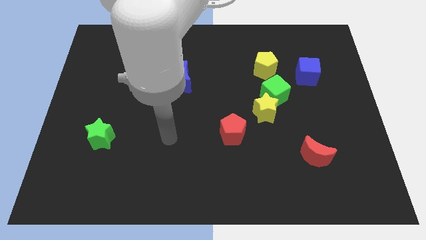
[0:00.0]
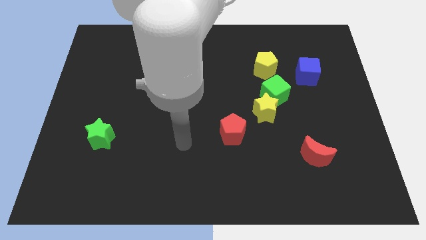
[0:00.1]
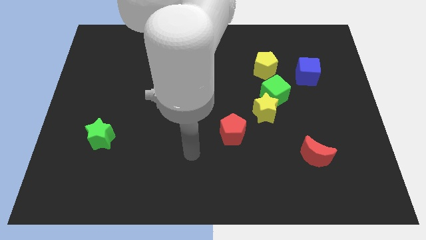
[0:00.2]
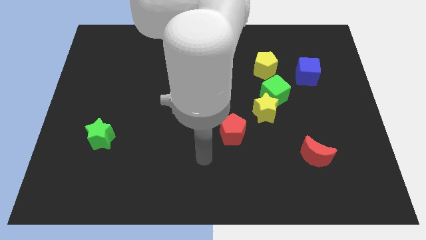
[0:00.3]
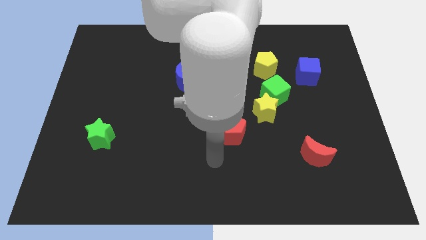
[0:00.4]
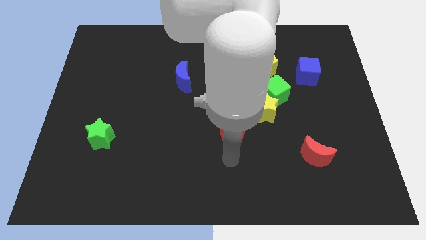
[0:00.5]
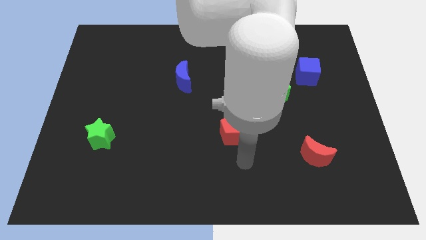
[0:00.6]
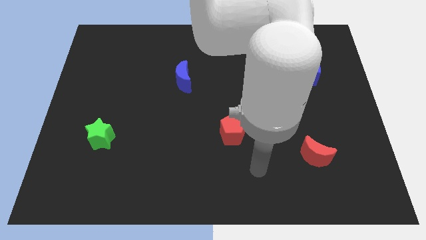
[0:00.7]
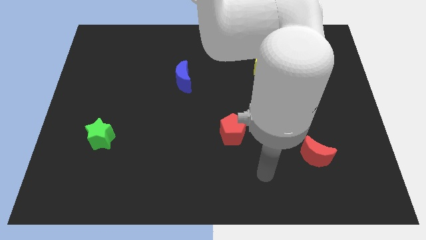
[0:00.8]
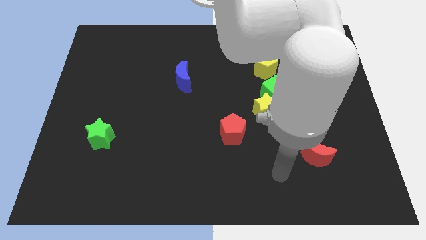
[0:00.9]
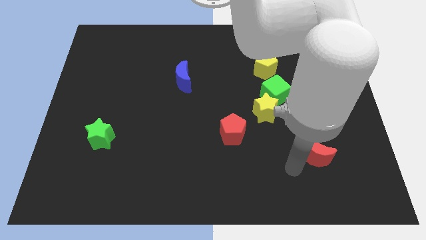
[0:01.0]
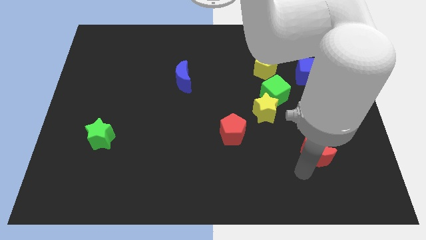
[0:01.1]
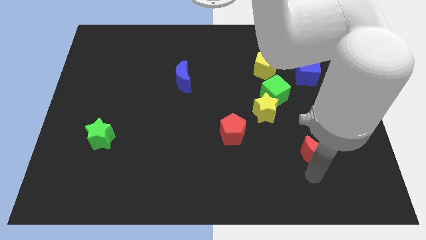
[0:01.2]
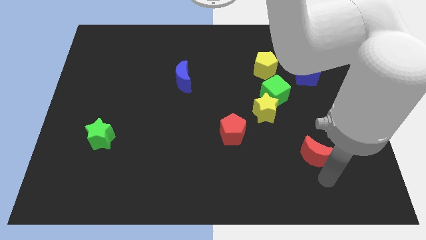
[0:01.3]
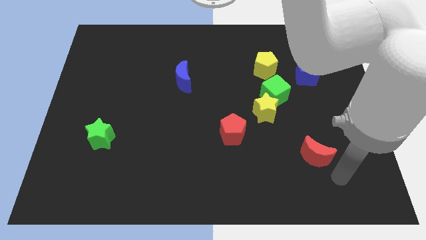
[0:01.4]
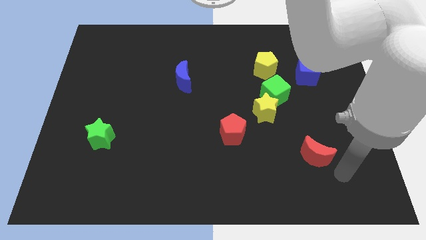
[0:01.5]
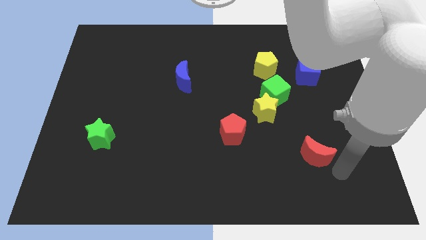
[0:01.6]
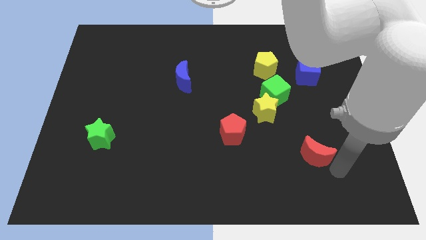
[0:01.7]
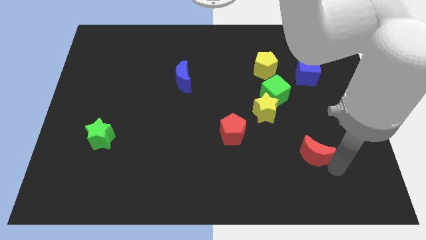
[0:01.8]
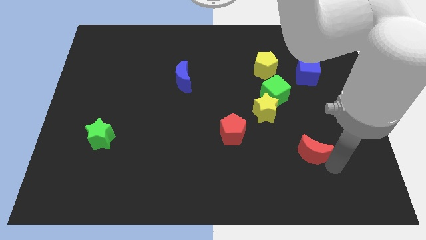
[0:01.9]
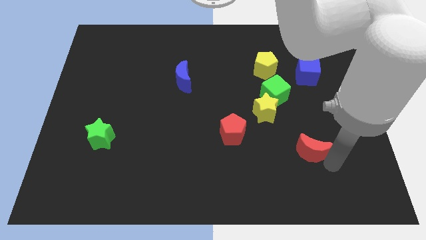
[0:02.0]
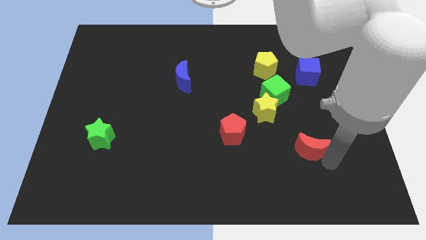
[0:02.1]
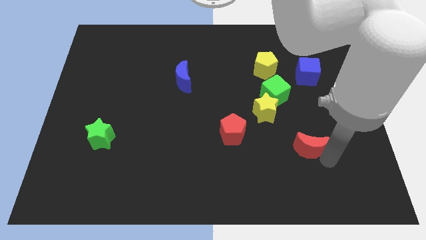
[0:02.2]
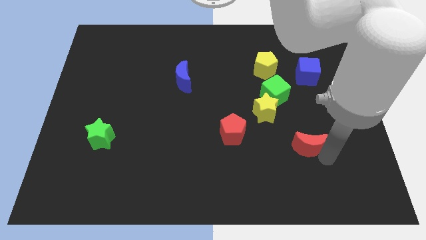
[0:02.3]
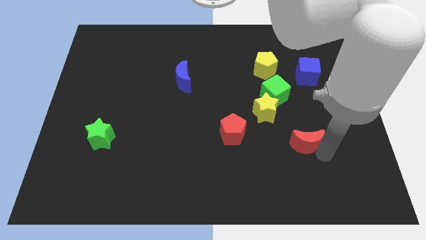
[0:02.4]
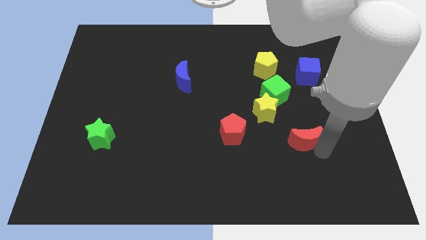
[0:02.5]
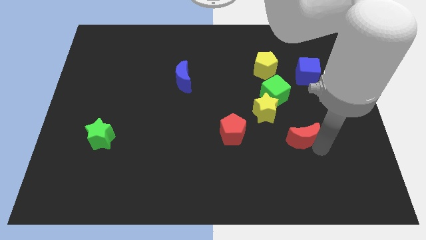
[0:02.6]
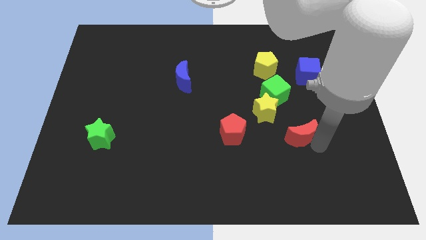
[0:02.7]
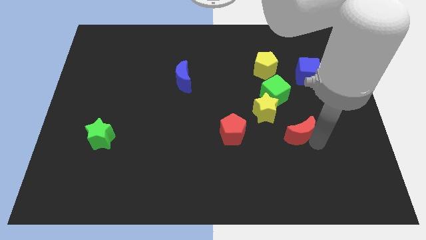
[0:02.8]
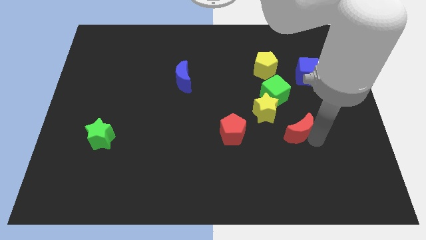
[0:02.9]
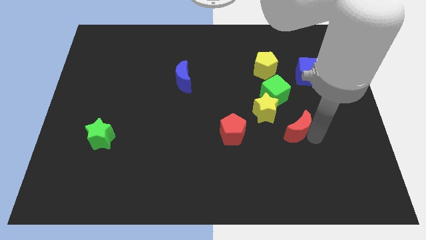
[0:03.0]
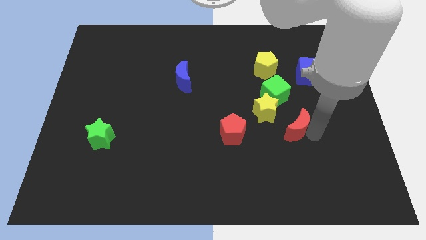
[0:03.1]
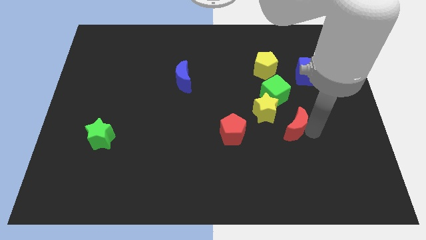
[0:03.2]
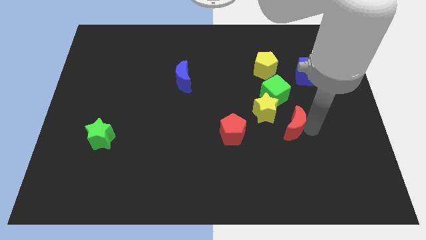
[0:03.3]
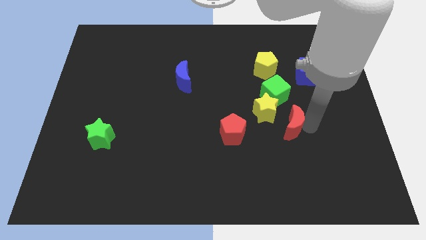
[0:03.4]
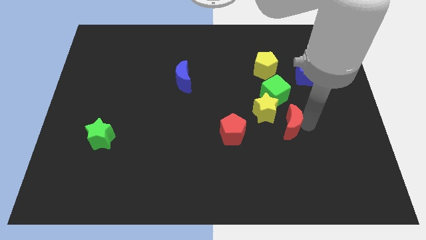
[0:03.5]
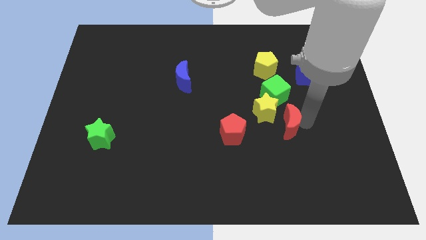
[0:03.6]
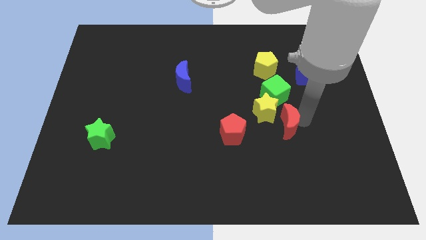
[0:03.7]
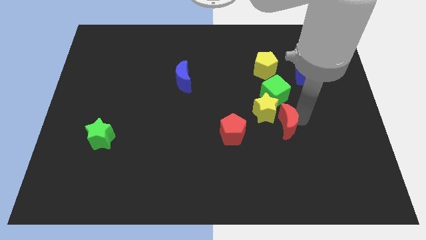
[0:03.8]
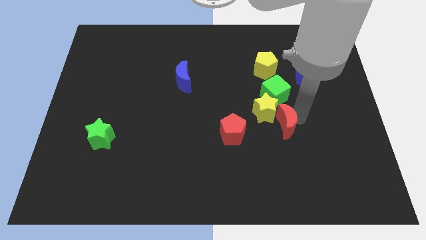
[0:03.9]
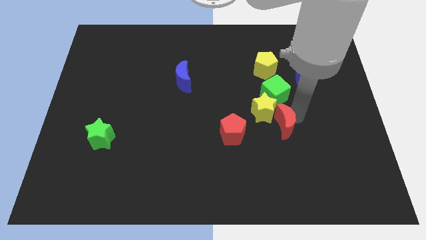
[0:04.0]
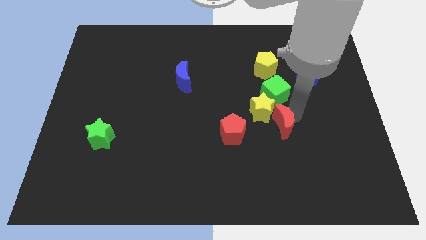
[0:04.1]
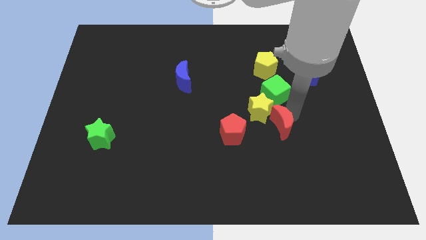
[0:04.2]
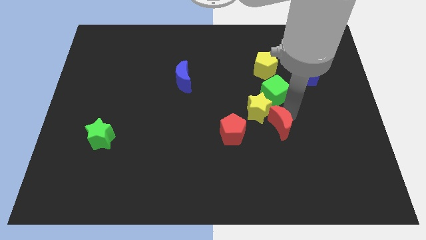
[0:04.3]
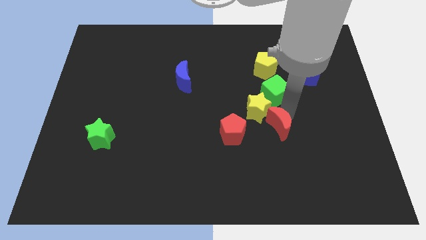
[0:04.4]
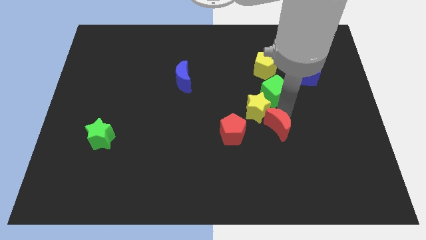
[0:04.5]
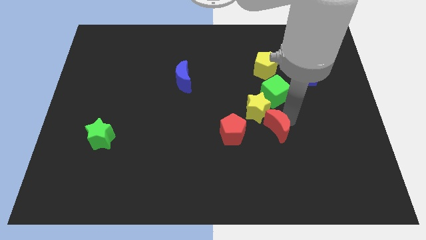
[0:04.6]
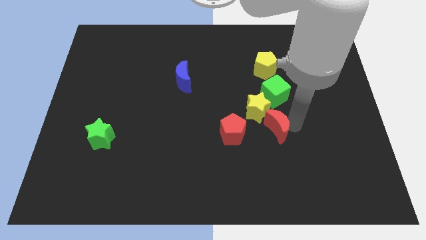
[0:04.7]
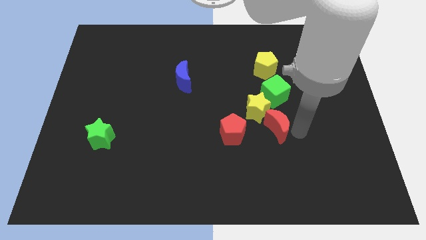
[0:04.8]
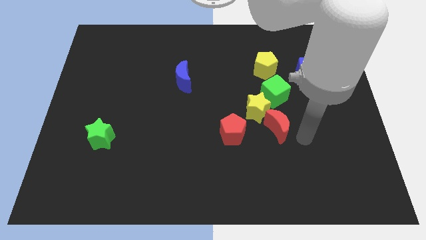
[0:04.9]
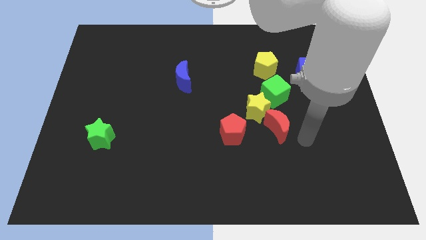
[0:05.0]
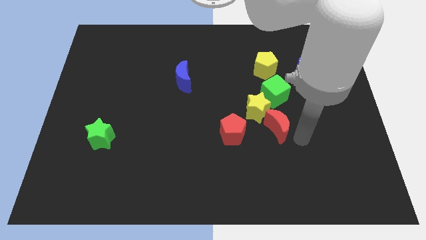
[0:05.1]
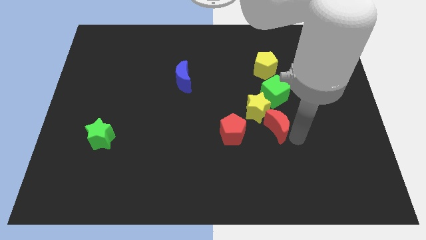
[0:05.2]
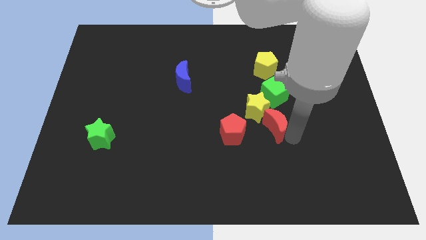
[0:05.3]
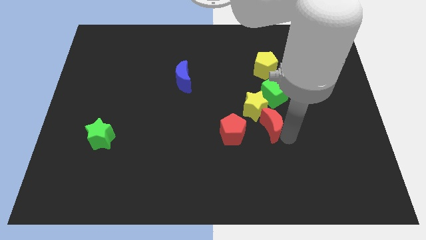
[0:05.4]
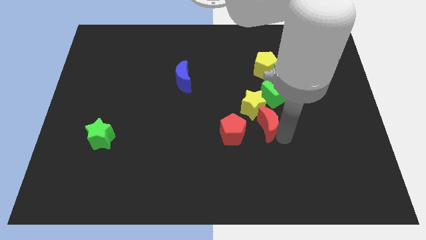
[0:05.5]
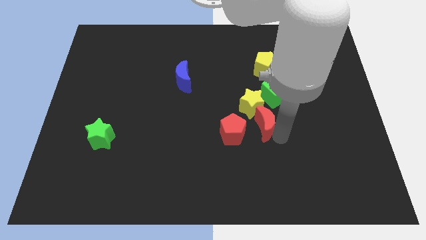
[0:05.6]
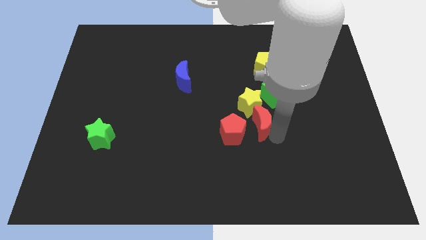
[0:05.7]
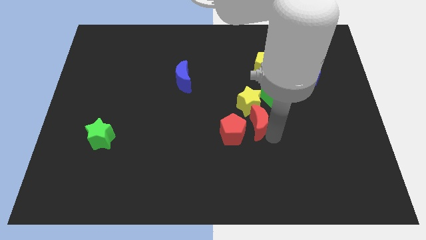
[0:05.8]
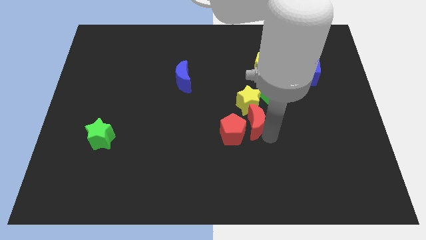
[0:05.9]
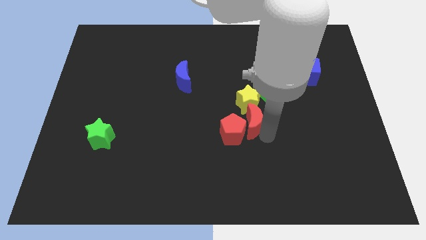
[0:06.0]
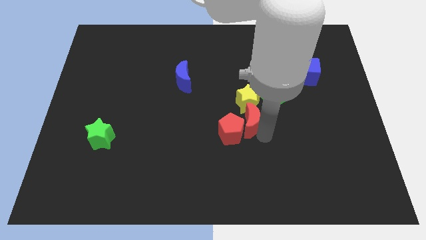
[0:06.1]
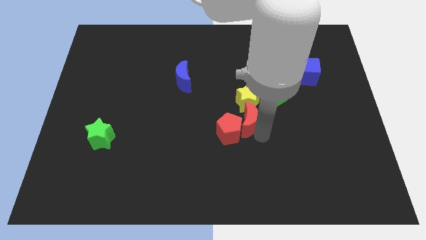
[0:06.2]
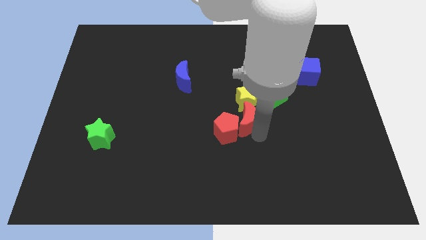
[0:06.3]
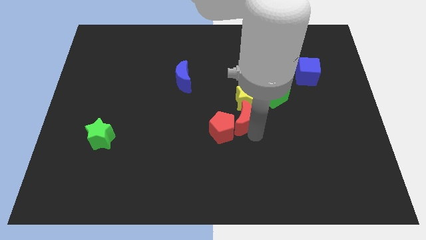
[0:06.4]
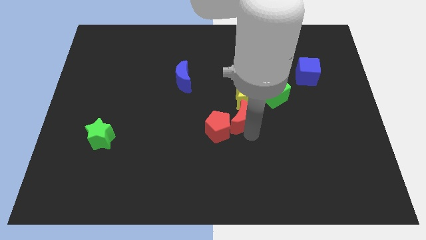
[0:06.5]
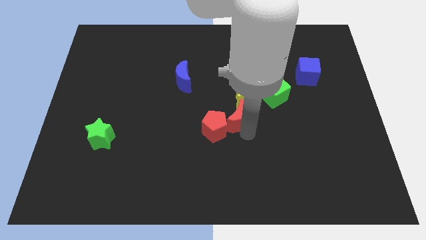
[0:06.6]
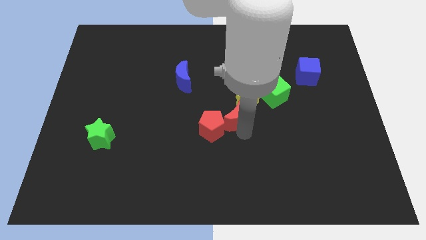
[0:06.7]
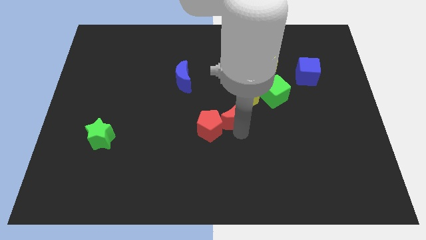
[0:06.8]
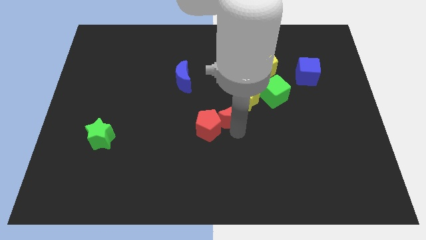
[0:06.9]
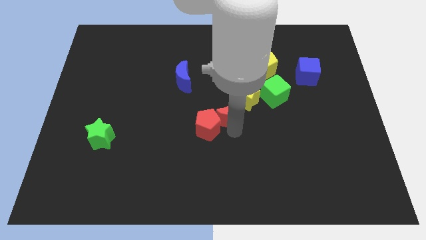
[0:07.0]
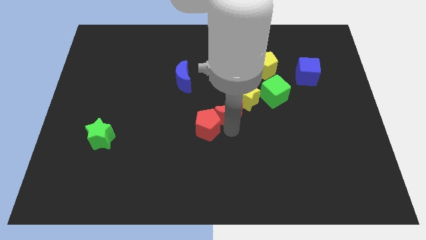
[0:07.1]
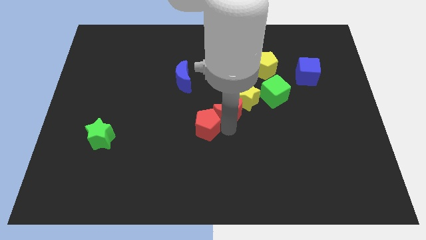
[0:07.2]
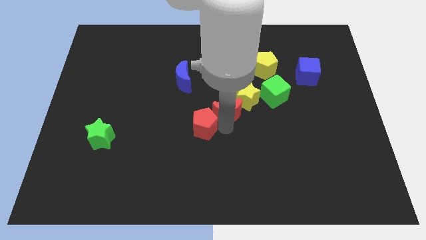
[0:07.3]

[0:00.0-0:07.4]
move the red moon upwards and to the left diagonally

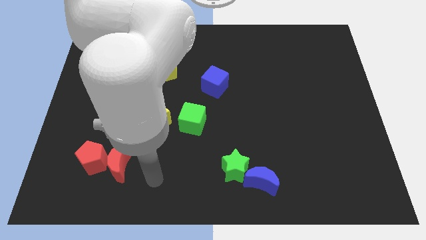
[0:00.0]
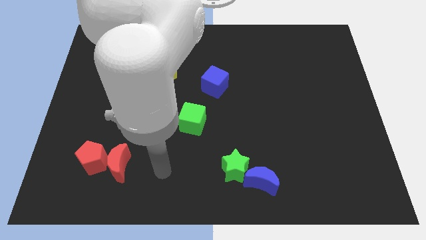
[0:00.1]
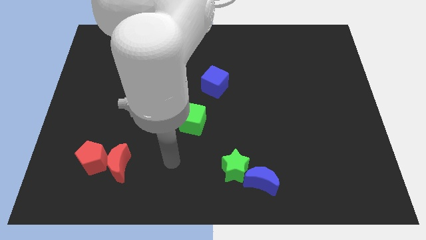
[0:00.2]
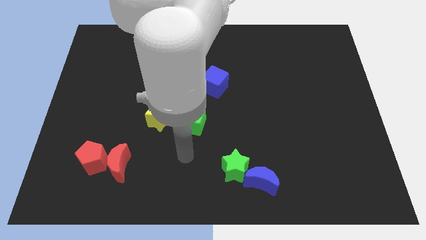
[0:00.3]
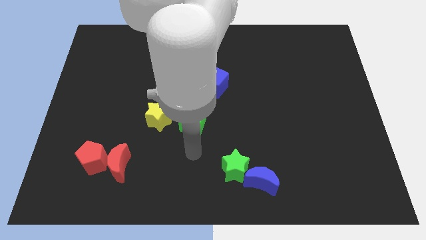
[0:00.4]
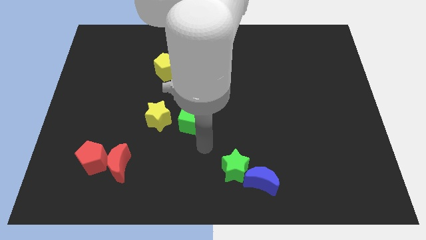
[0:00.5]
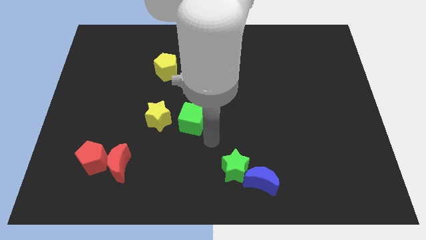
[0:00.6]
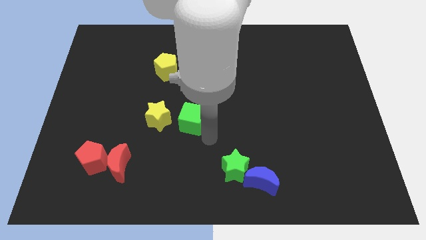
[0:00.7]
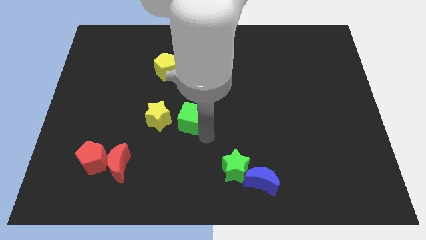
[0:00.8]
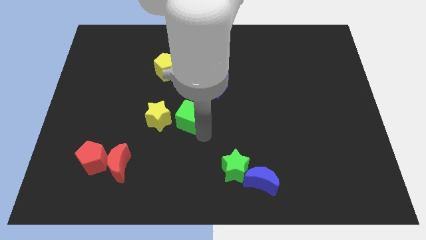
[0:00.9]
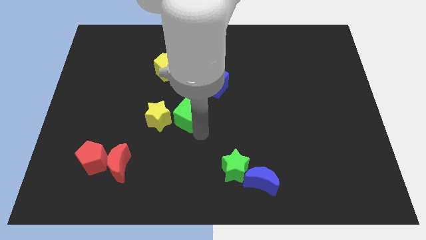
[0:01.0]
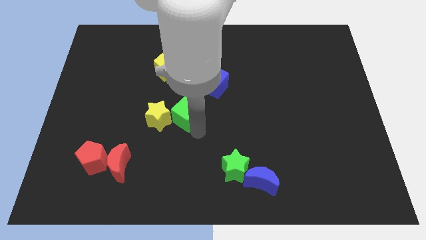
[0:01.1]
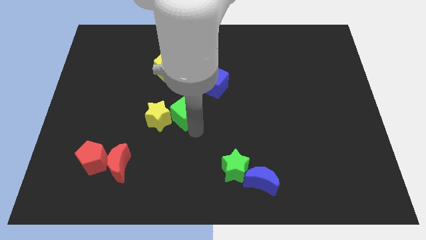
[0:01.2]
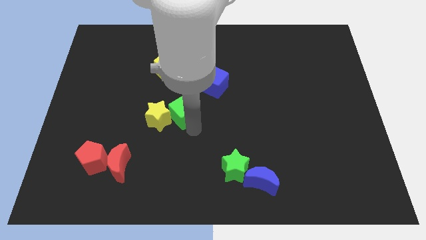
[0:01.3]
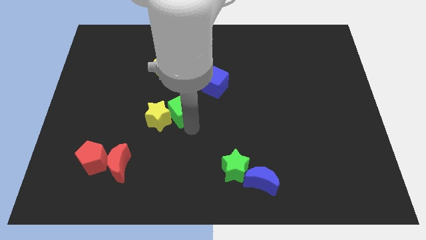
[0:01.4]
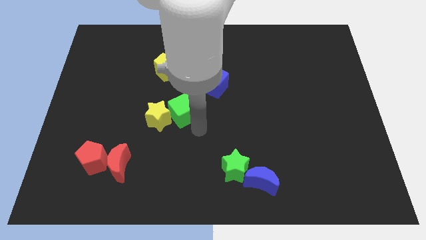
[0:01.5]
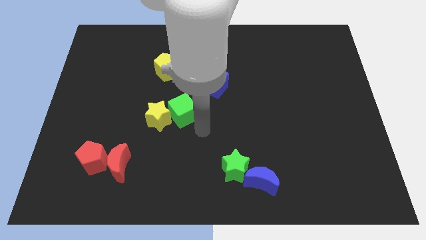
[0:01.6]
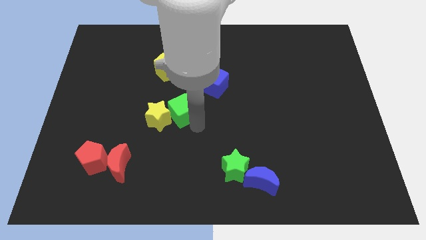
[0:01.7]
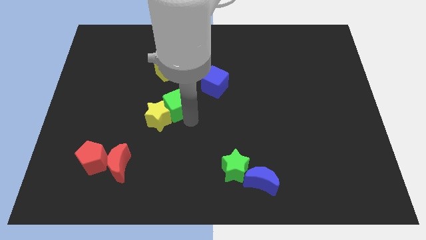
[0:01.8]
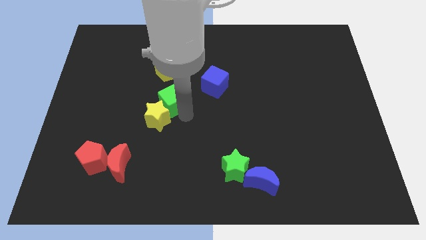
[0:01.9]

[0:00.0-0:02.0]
move the green cube a little upwards and left diagonally
